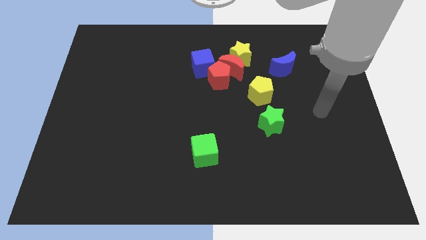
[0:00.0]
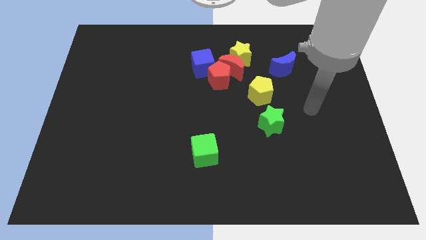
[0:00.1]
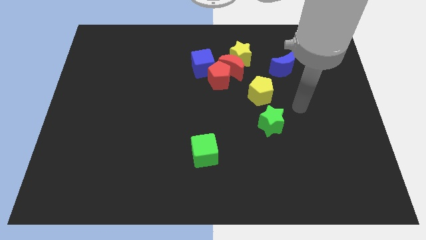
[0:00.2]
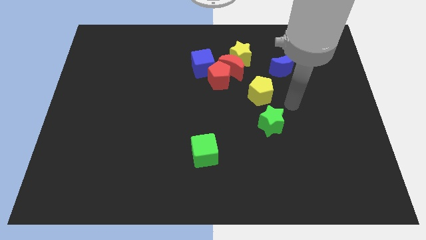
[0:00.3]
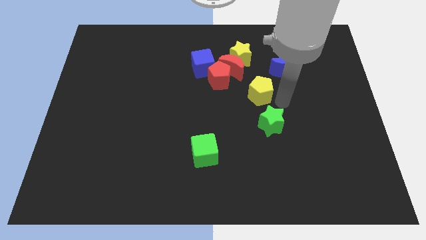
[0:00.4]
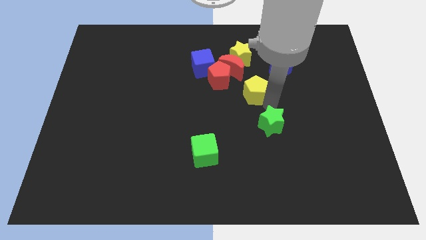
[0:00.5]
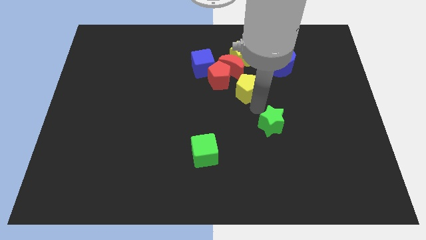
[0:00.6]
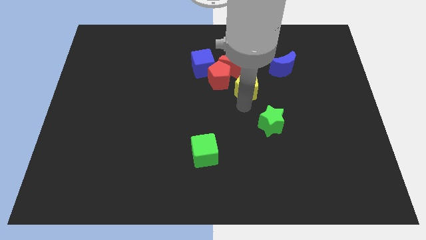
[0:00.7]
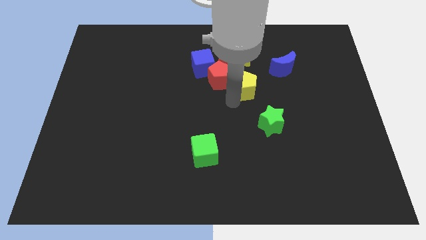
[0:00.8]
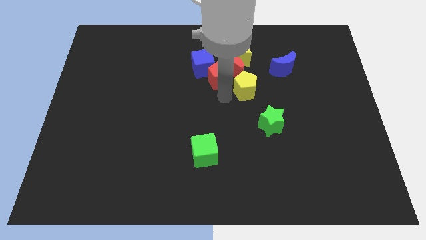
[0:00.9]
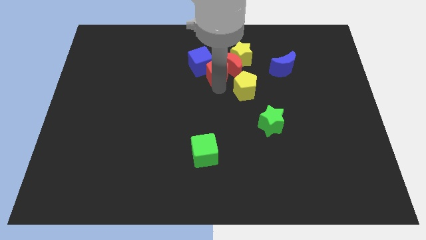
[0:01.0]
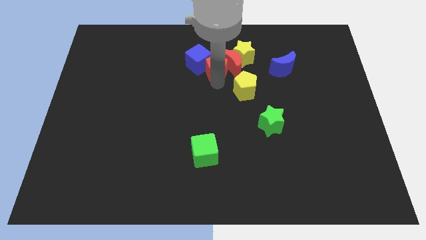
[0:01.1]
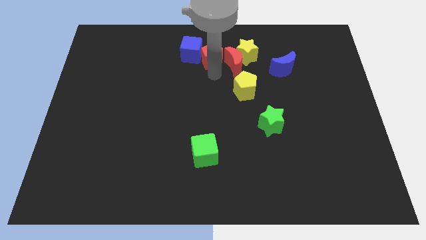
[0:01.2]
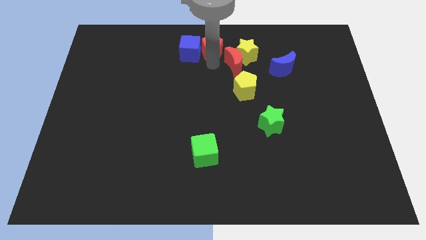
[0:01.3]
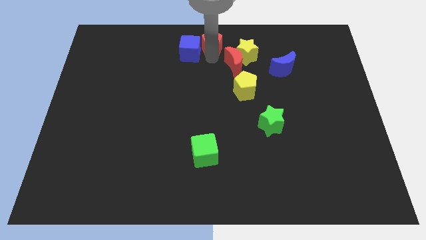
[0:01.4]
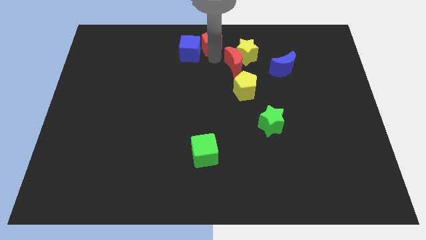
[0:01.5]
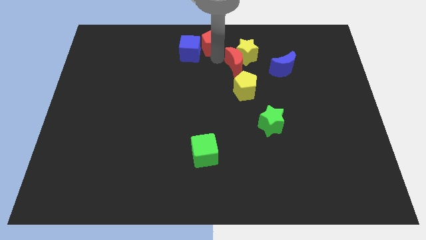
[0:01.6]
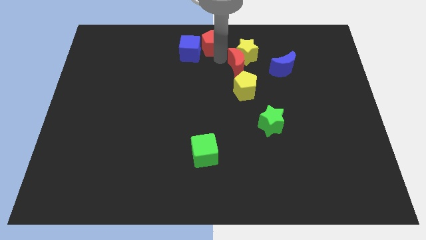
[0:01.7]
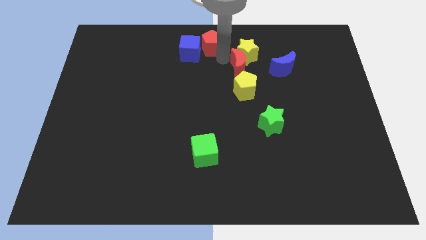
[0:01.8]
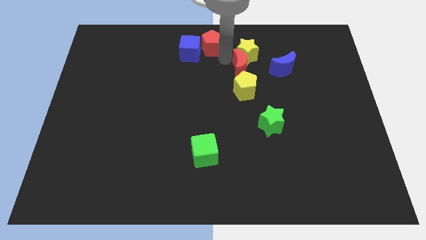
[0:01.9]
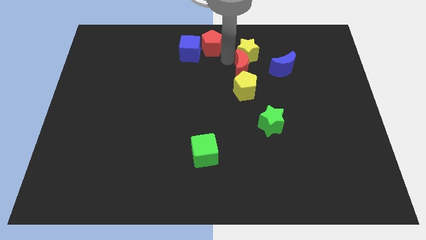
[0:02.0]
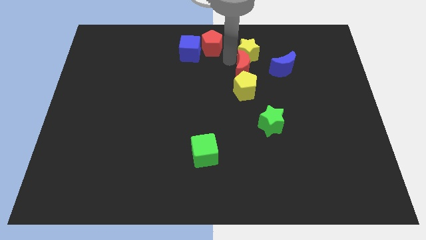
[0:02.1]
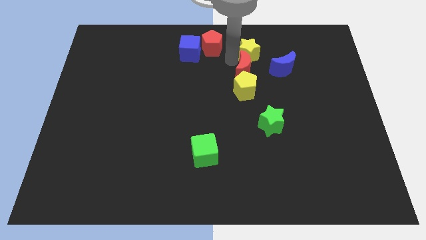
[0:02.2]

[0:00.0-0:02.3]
separate the red moon from the group

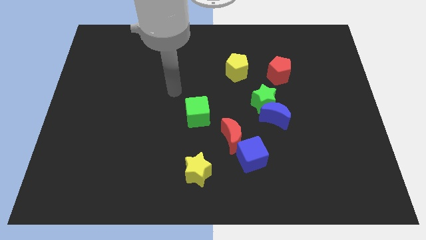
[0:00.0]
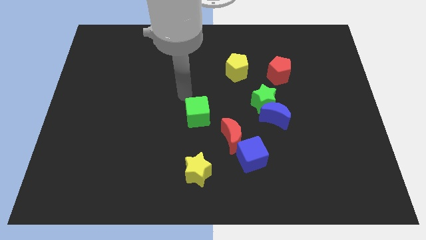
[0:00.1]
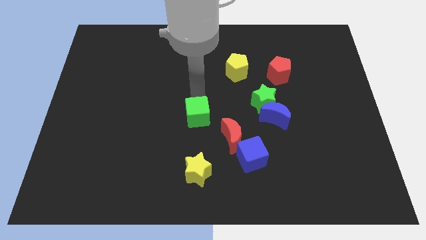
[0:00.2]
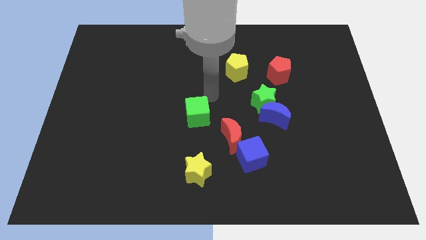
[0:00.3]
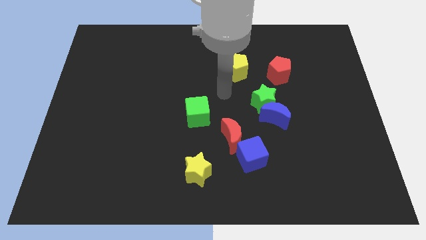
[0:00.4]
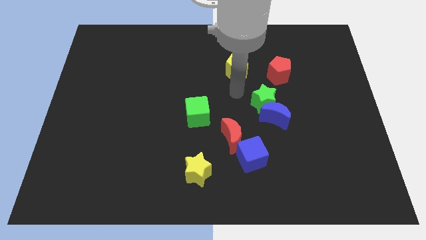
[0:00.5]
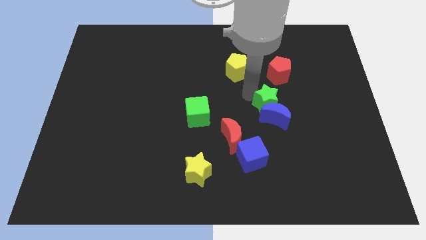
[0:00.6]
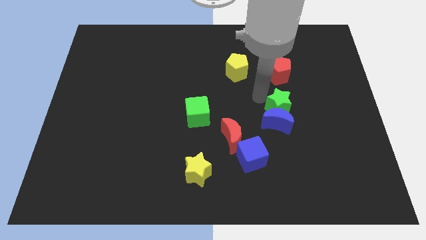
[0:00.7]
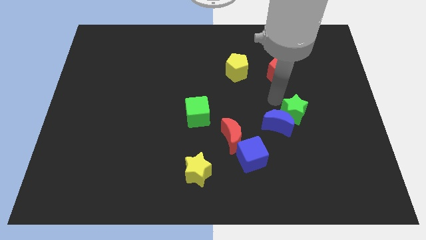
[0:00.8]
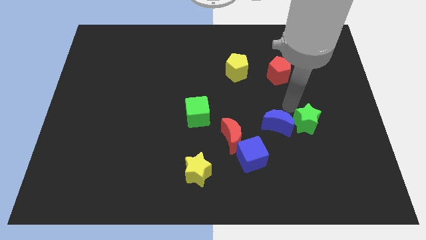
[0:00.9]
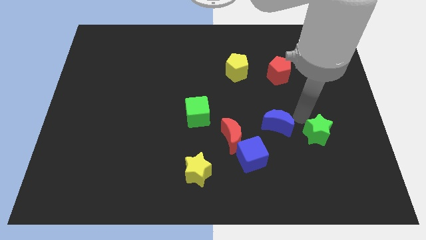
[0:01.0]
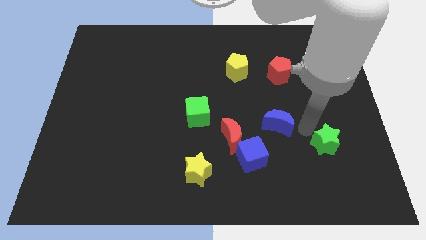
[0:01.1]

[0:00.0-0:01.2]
separate the blue moon from the green star

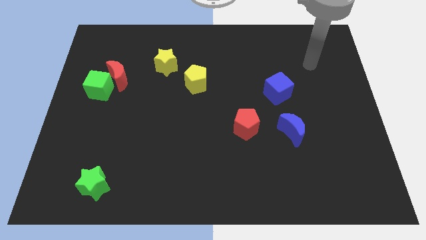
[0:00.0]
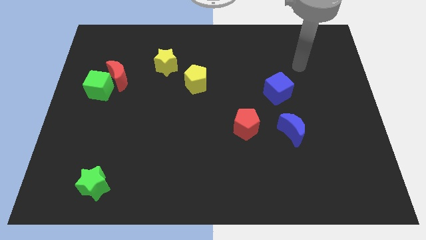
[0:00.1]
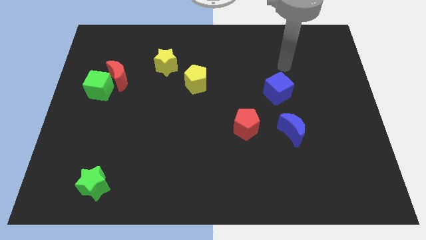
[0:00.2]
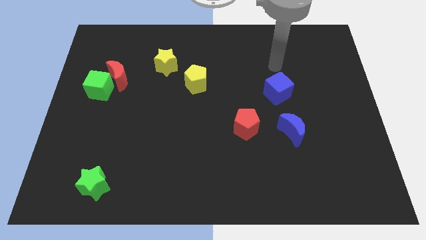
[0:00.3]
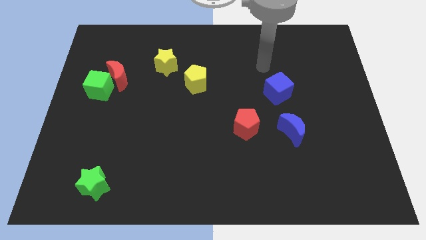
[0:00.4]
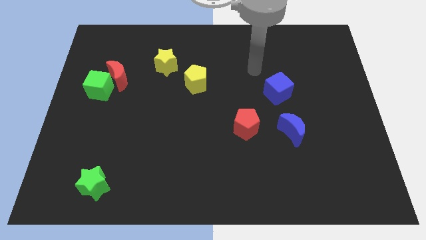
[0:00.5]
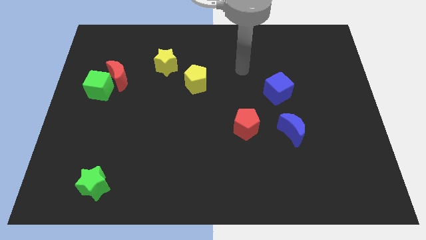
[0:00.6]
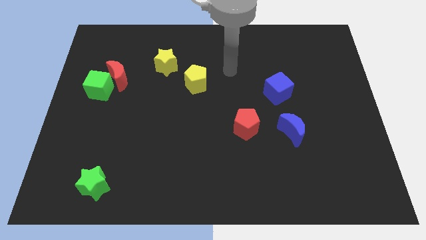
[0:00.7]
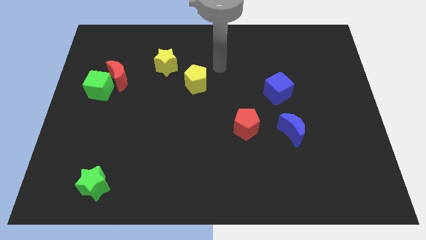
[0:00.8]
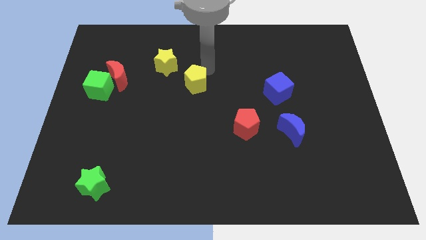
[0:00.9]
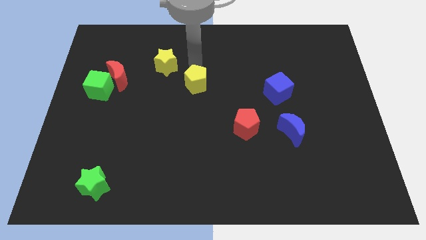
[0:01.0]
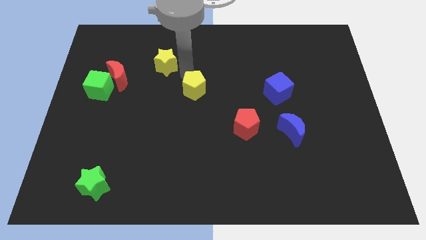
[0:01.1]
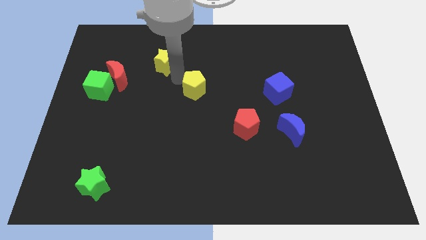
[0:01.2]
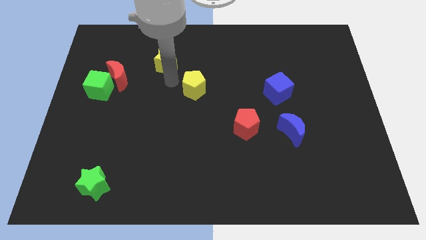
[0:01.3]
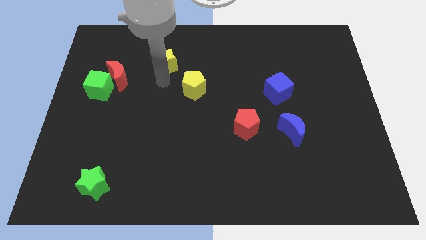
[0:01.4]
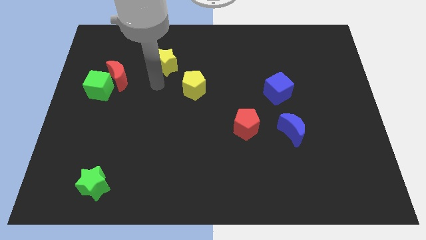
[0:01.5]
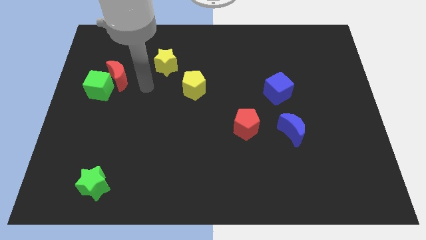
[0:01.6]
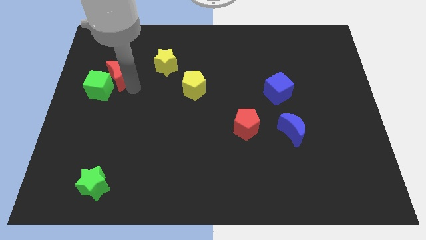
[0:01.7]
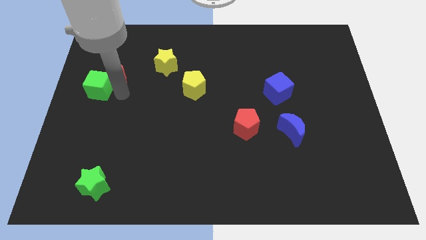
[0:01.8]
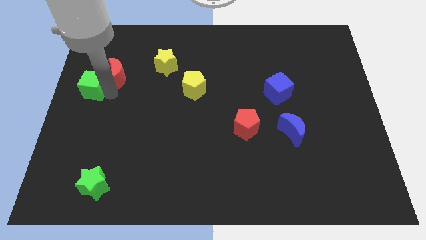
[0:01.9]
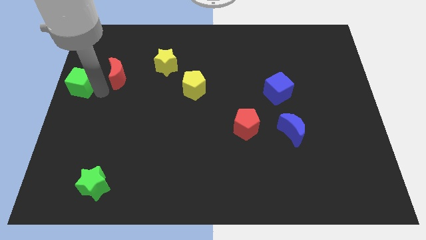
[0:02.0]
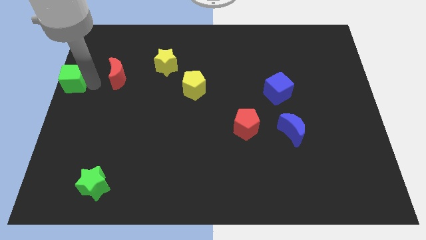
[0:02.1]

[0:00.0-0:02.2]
move the red moon away from the green cube

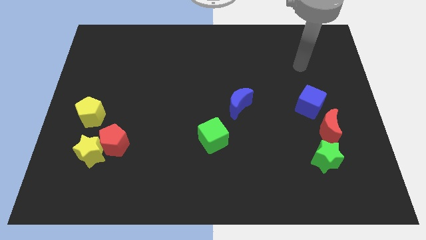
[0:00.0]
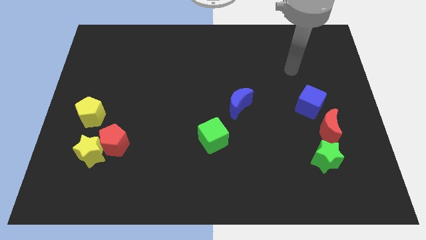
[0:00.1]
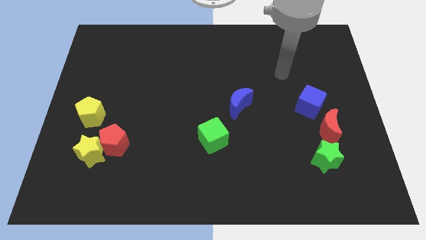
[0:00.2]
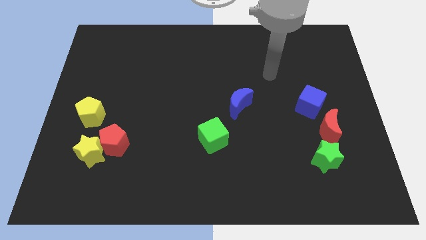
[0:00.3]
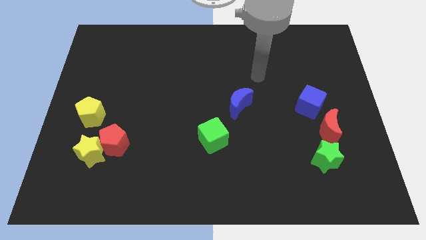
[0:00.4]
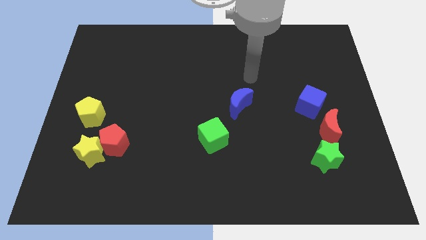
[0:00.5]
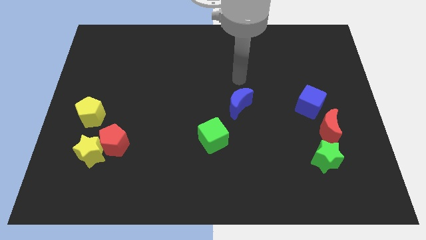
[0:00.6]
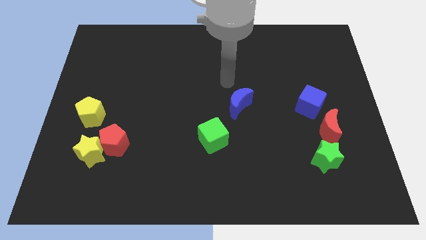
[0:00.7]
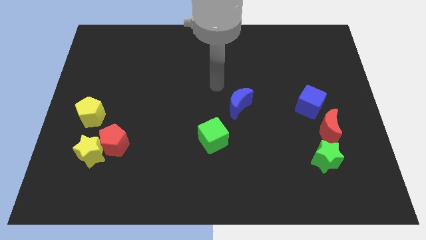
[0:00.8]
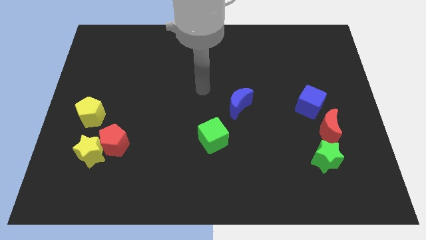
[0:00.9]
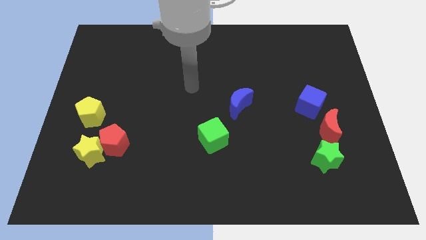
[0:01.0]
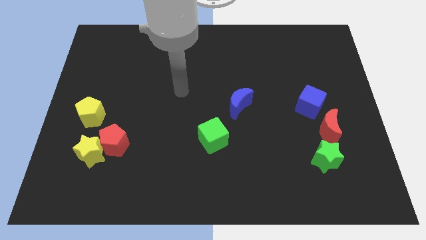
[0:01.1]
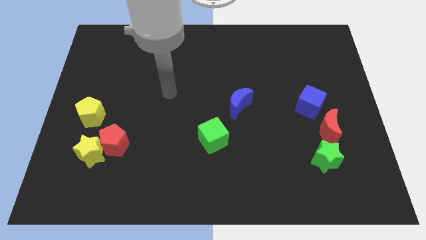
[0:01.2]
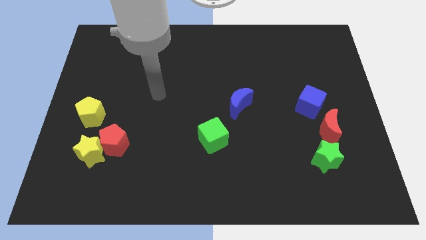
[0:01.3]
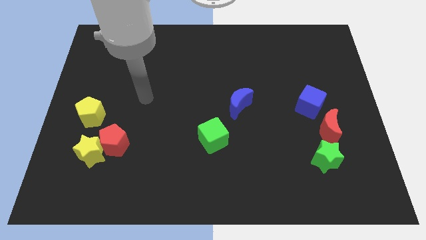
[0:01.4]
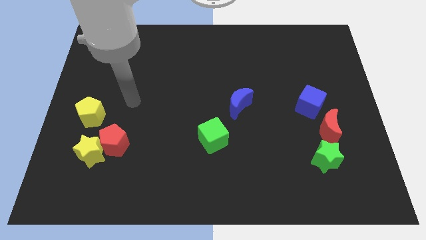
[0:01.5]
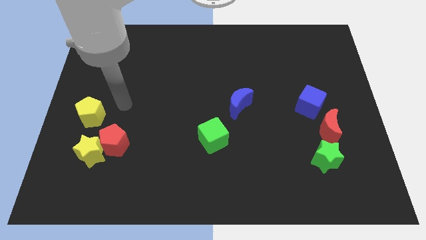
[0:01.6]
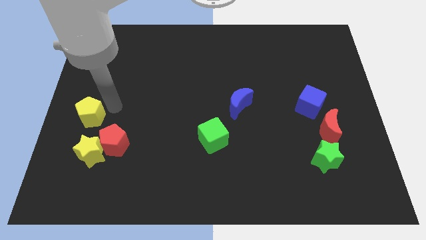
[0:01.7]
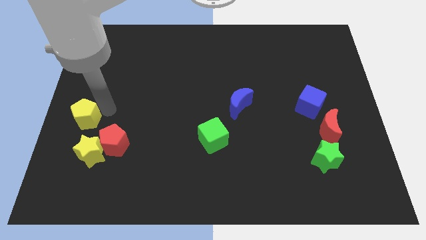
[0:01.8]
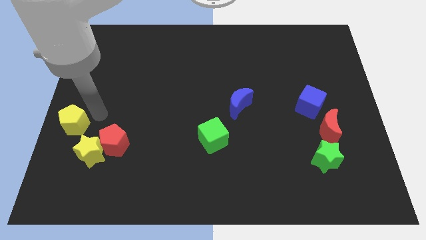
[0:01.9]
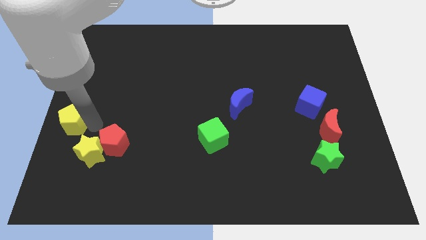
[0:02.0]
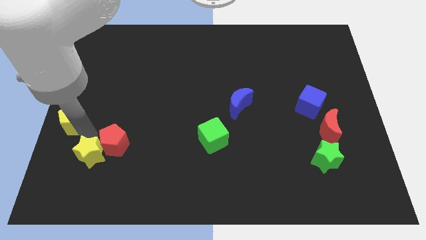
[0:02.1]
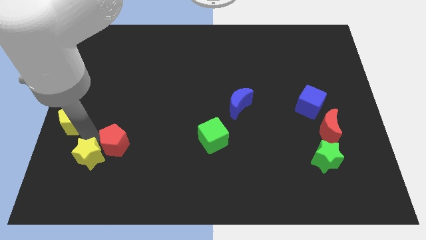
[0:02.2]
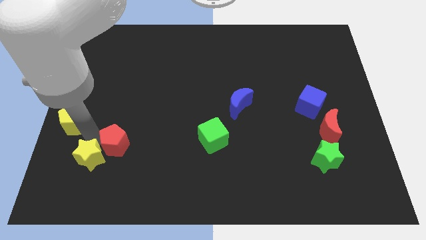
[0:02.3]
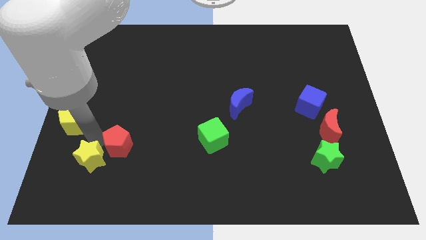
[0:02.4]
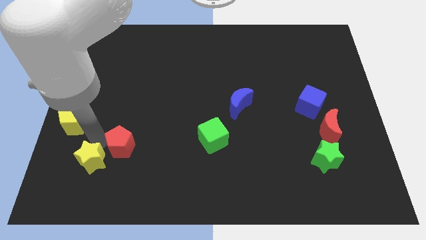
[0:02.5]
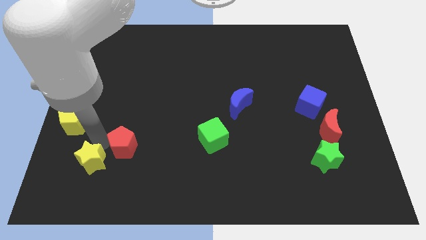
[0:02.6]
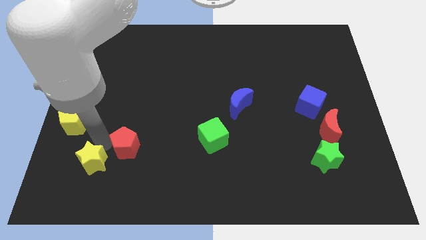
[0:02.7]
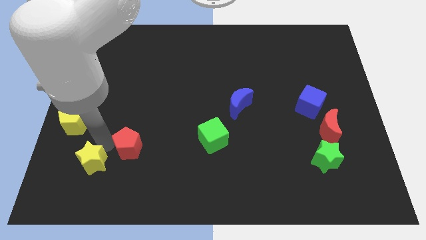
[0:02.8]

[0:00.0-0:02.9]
separate the red pentagon from the yellow star and yellow pentagon

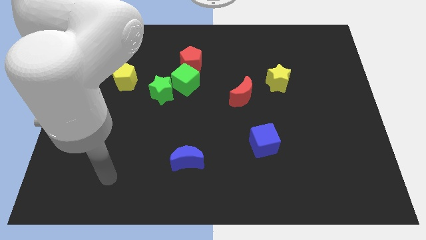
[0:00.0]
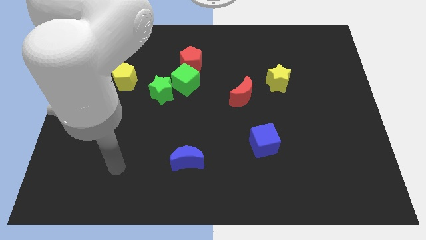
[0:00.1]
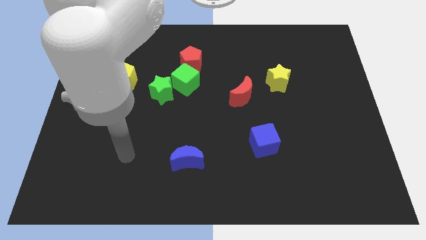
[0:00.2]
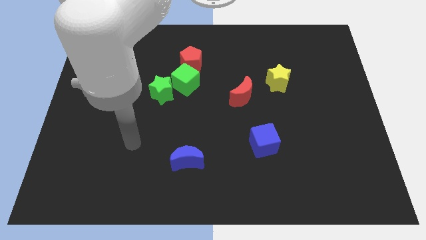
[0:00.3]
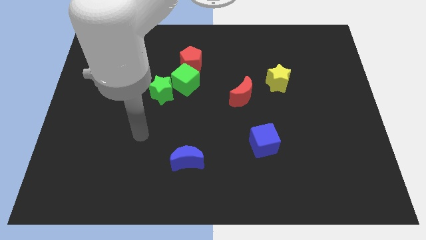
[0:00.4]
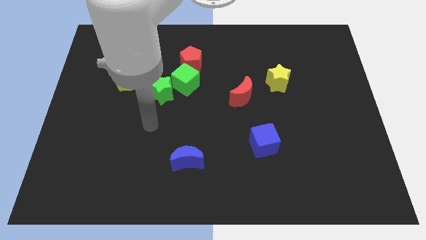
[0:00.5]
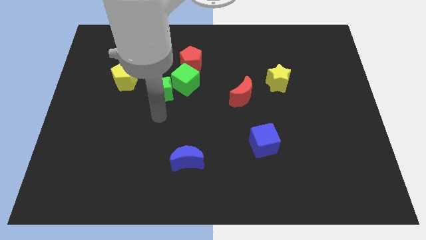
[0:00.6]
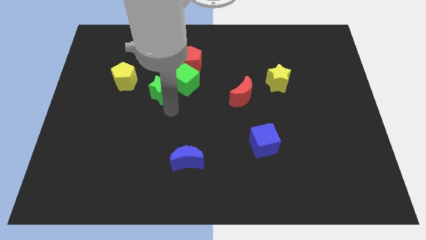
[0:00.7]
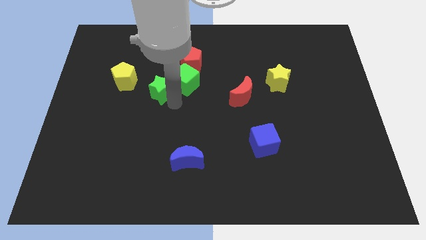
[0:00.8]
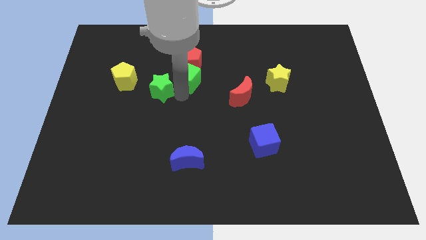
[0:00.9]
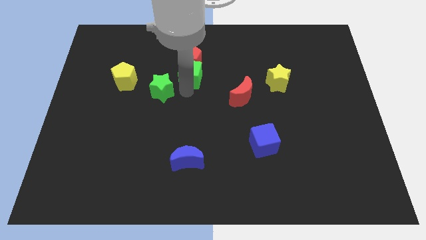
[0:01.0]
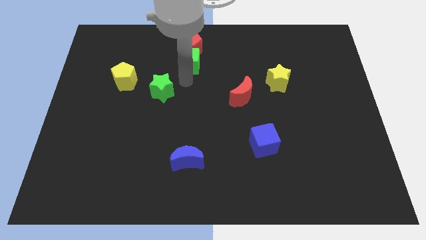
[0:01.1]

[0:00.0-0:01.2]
move the green star away from the green cube
